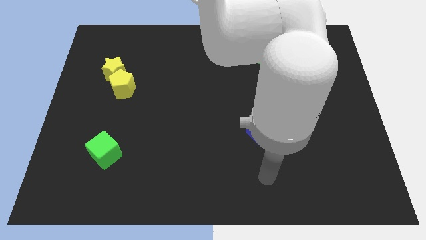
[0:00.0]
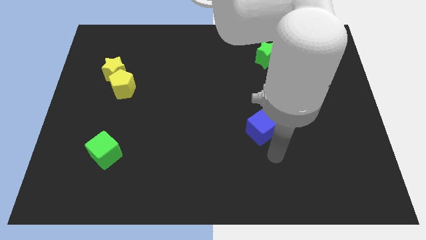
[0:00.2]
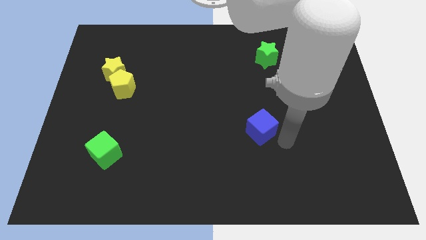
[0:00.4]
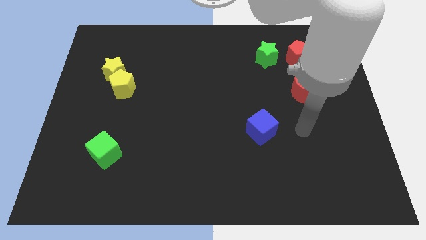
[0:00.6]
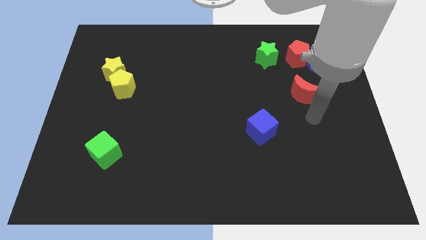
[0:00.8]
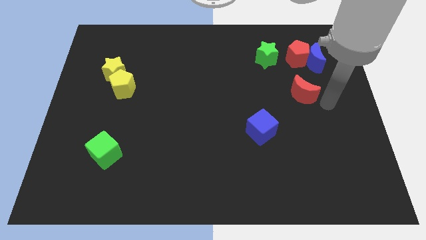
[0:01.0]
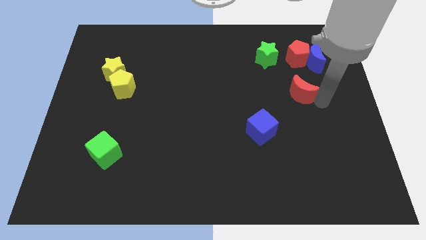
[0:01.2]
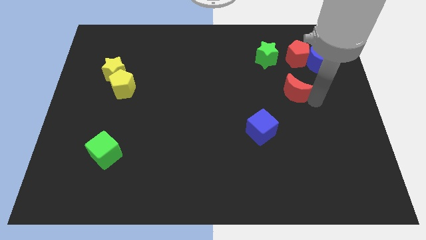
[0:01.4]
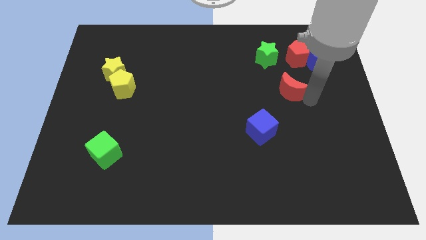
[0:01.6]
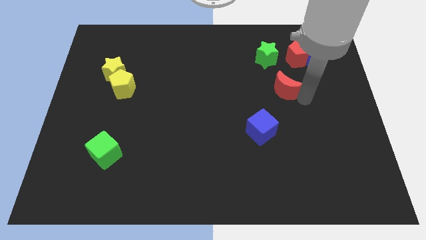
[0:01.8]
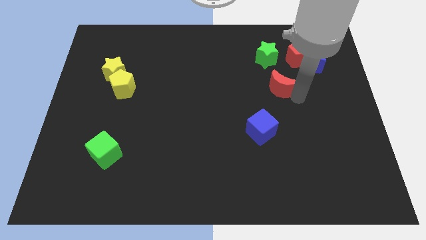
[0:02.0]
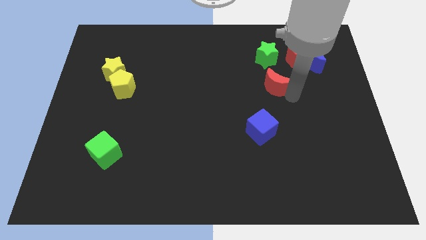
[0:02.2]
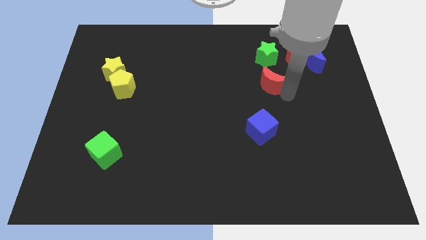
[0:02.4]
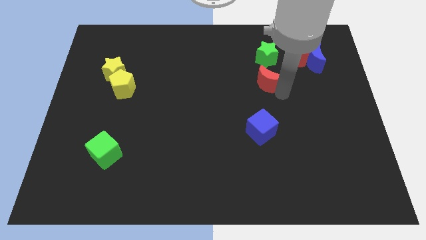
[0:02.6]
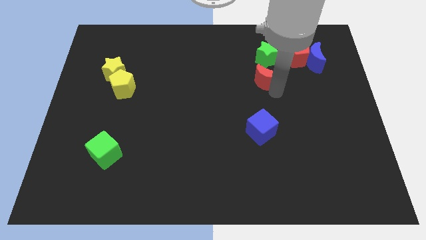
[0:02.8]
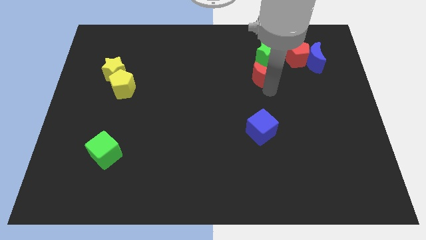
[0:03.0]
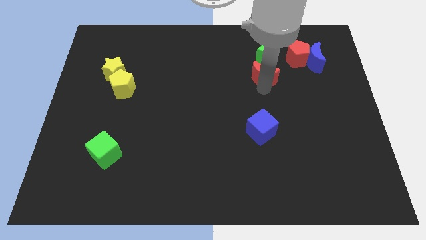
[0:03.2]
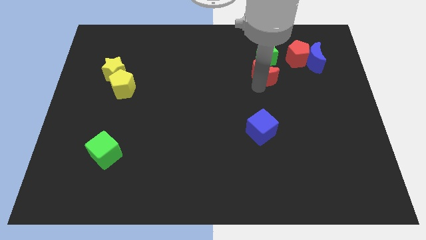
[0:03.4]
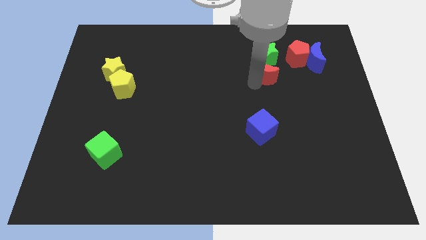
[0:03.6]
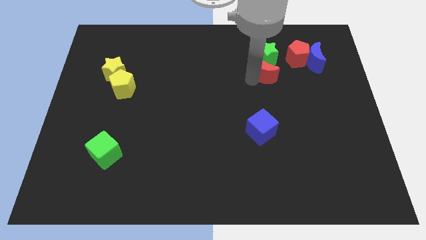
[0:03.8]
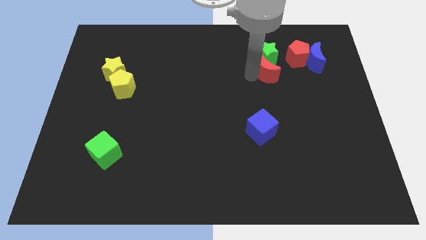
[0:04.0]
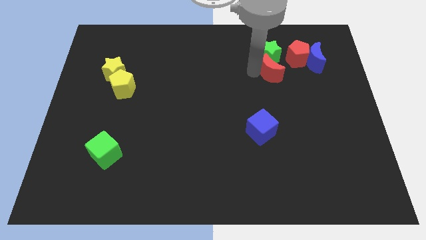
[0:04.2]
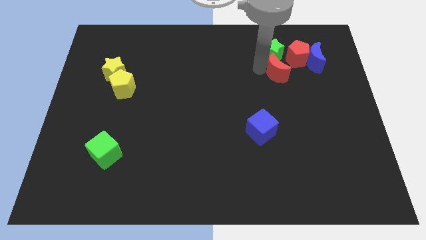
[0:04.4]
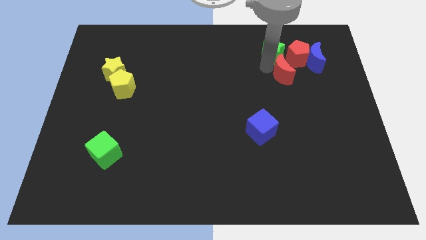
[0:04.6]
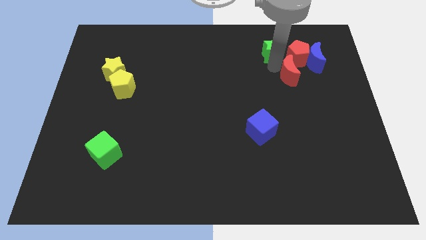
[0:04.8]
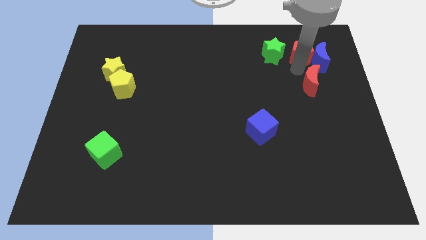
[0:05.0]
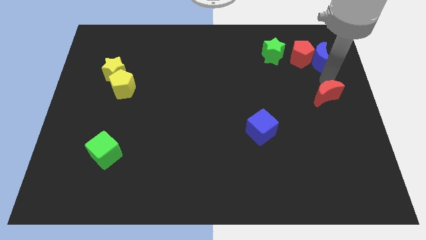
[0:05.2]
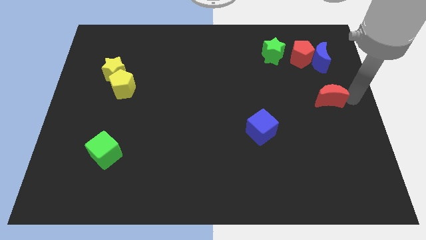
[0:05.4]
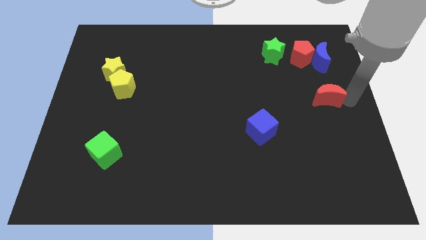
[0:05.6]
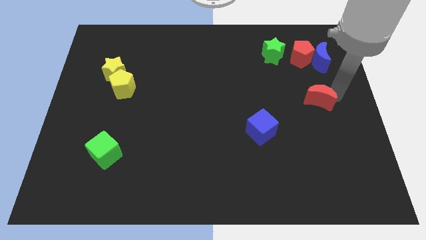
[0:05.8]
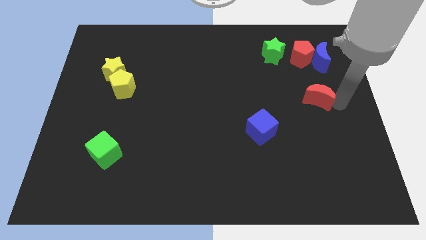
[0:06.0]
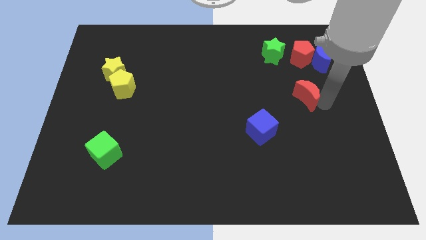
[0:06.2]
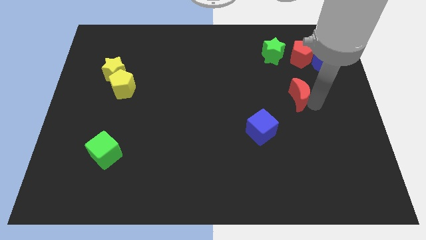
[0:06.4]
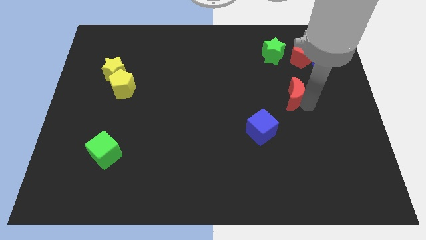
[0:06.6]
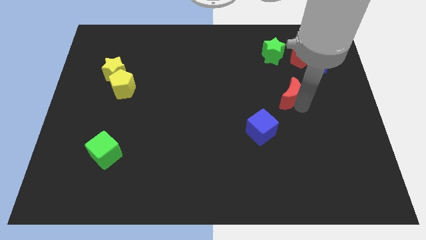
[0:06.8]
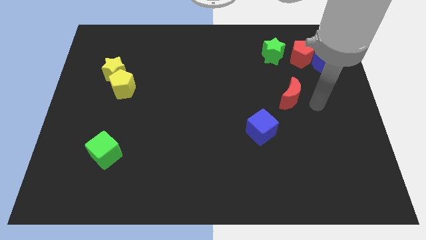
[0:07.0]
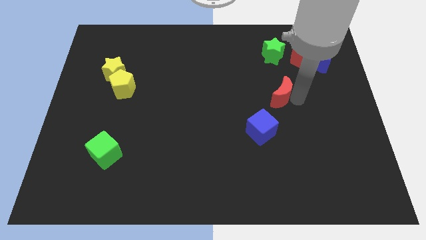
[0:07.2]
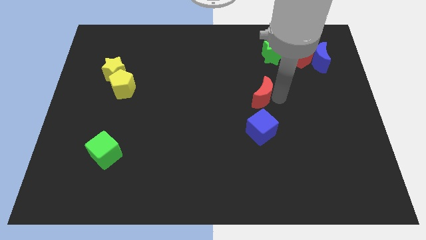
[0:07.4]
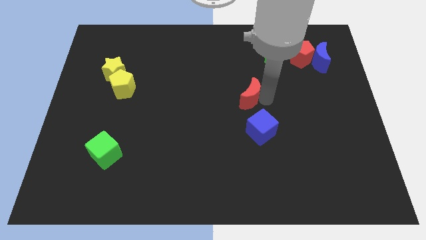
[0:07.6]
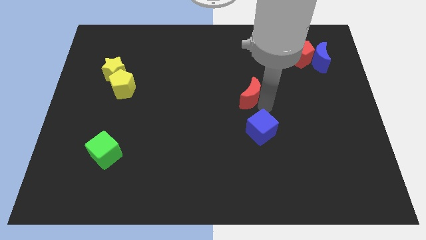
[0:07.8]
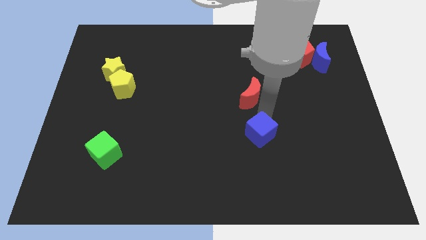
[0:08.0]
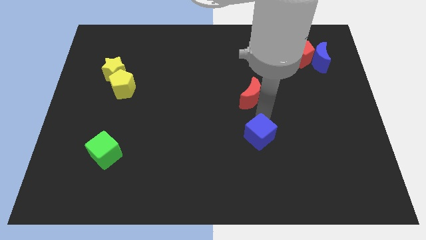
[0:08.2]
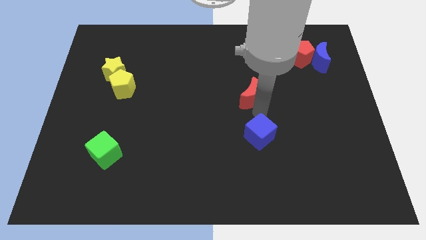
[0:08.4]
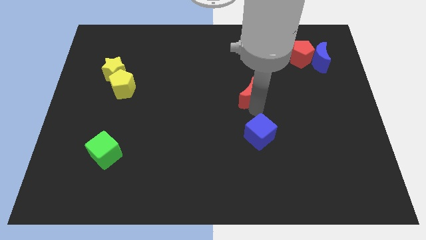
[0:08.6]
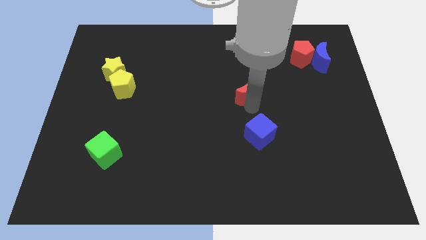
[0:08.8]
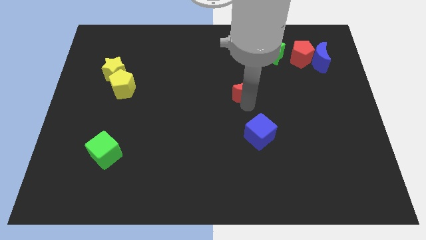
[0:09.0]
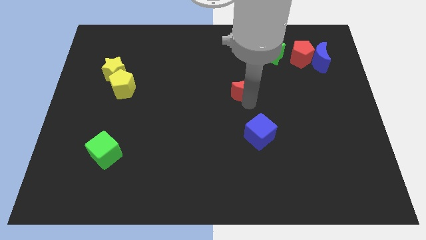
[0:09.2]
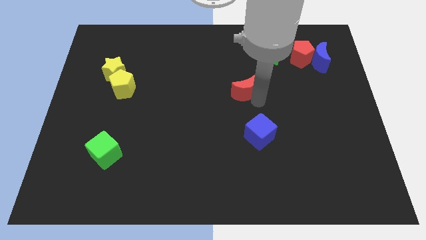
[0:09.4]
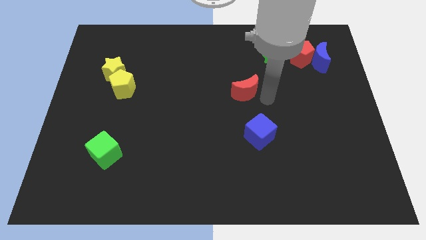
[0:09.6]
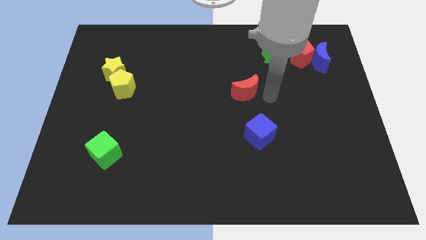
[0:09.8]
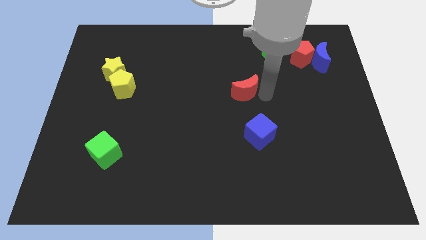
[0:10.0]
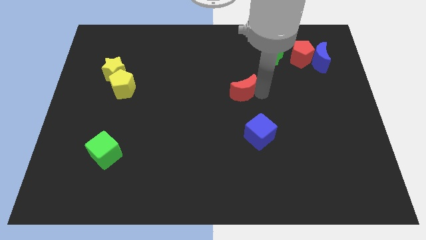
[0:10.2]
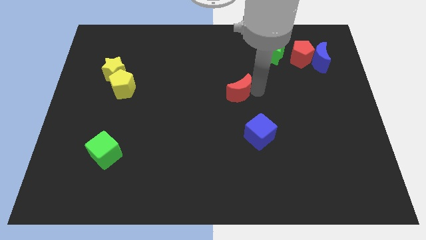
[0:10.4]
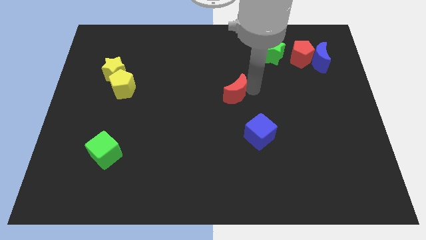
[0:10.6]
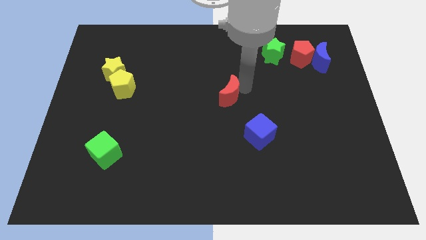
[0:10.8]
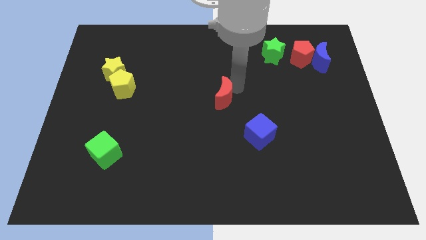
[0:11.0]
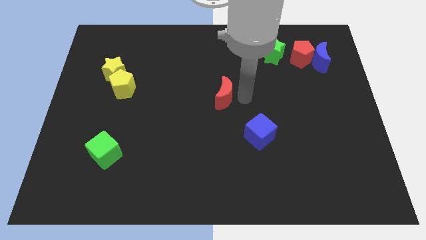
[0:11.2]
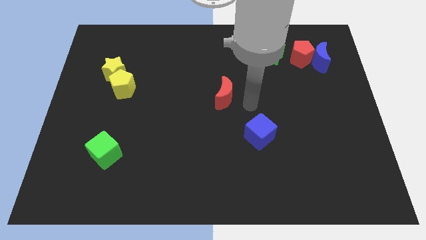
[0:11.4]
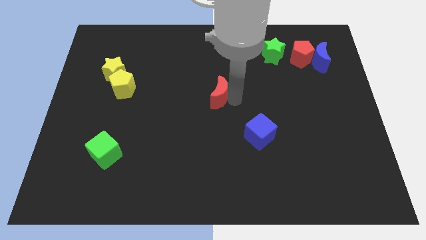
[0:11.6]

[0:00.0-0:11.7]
push the red moon left

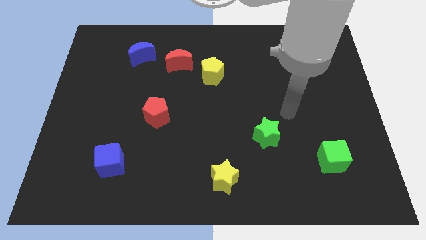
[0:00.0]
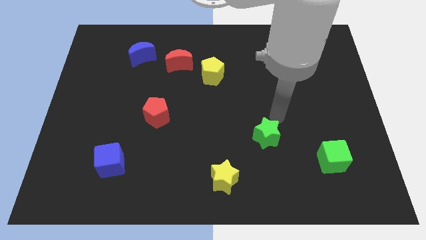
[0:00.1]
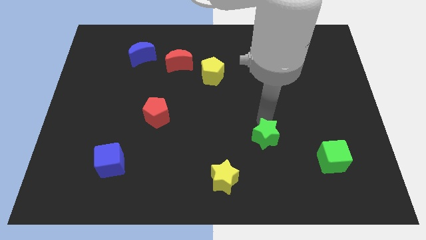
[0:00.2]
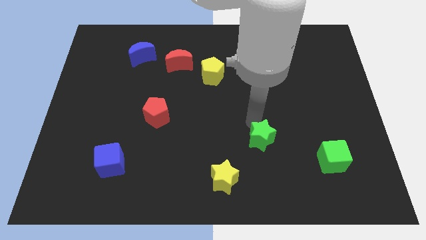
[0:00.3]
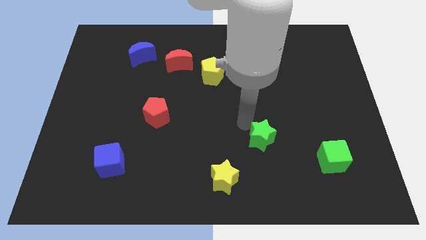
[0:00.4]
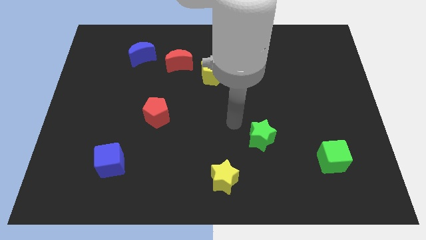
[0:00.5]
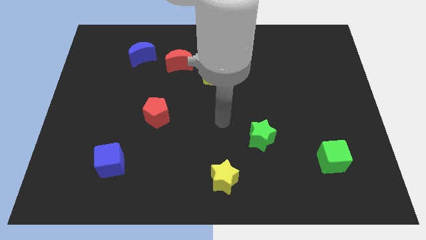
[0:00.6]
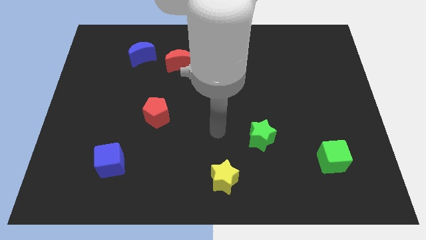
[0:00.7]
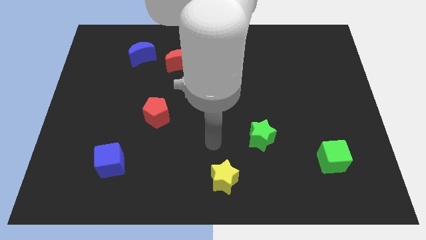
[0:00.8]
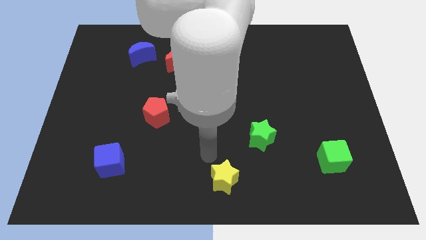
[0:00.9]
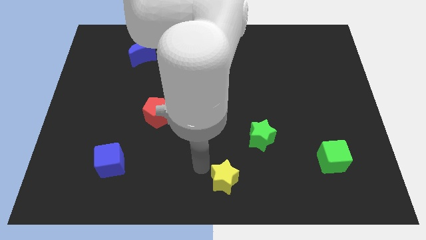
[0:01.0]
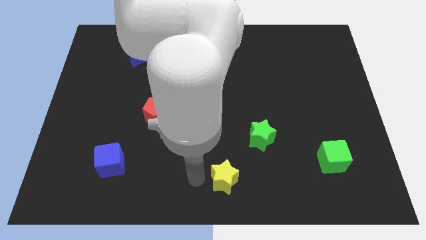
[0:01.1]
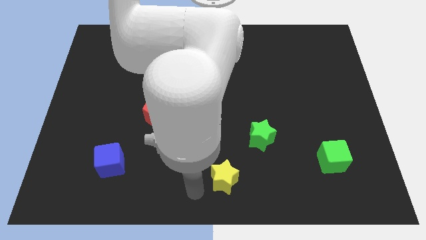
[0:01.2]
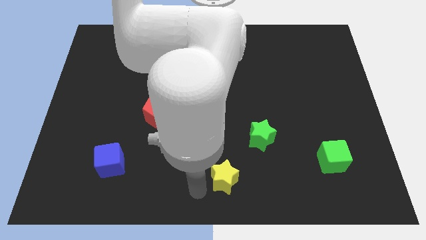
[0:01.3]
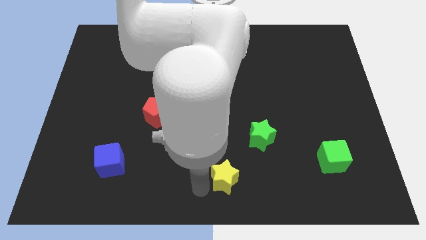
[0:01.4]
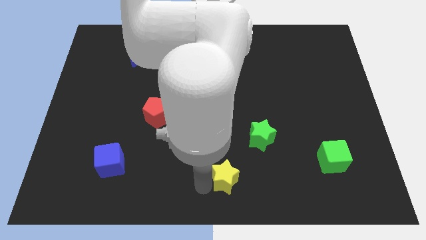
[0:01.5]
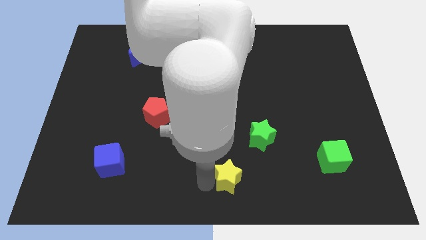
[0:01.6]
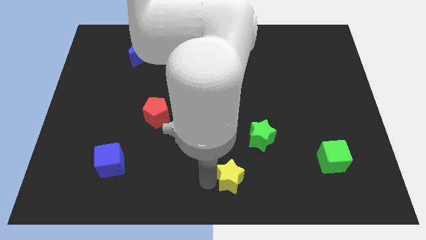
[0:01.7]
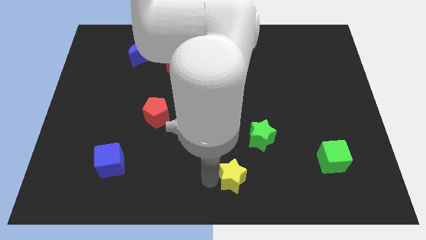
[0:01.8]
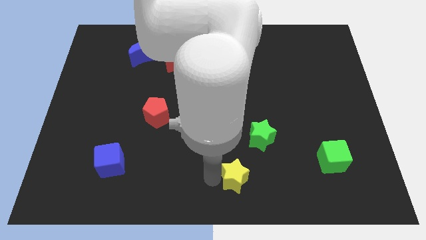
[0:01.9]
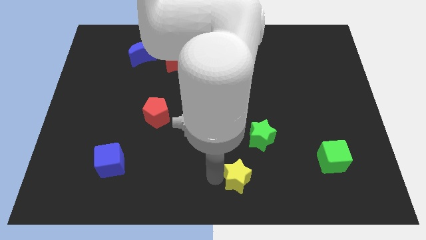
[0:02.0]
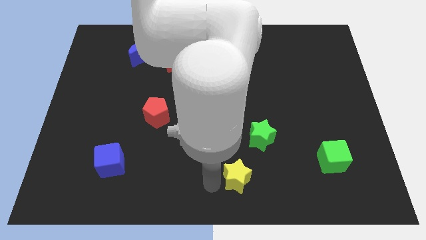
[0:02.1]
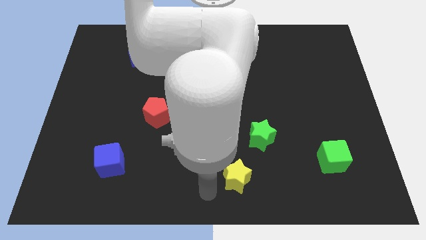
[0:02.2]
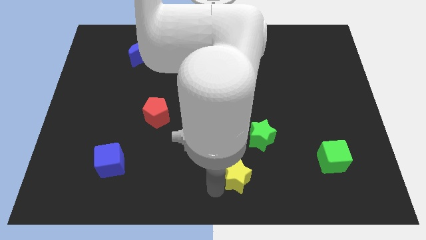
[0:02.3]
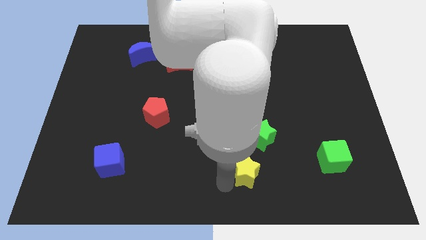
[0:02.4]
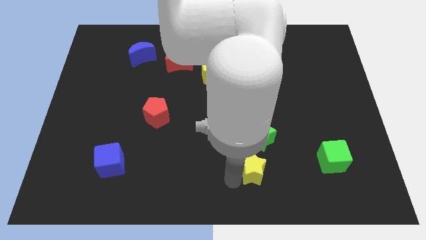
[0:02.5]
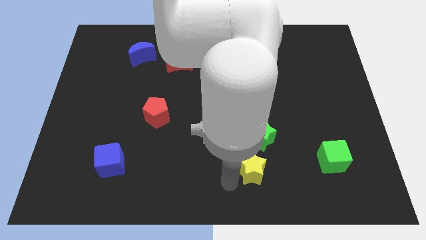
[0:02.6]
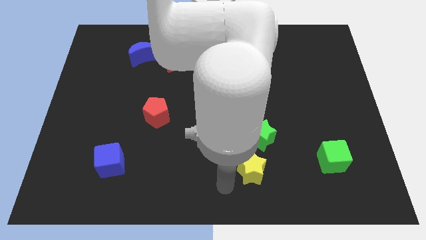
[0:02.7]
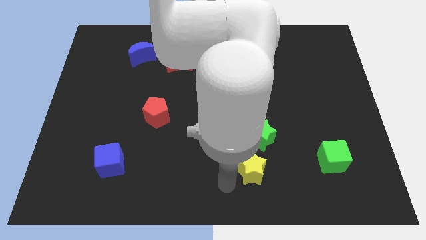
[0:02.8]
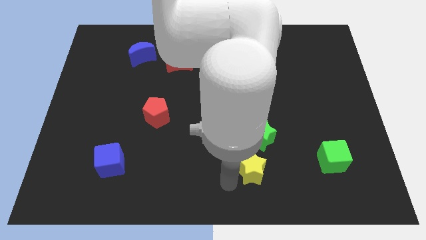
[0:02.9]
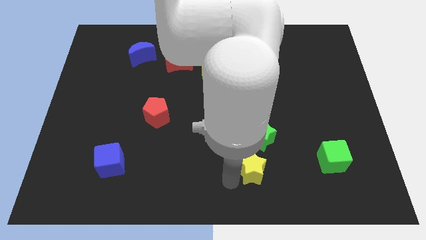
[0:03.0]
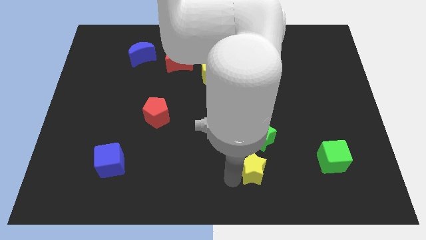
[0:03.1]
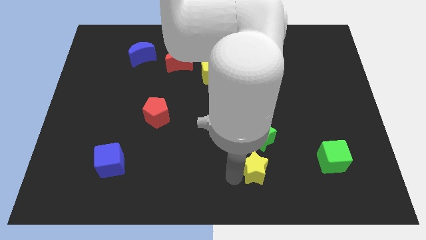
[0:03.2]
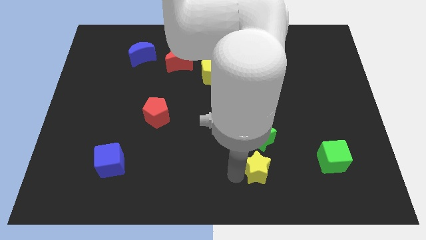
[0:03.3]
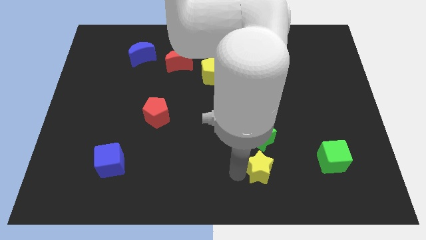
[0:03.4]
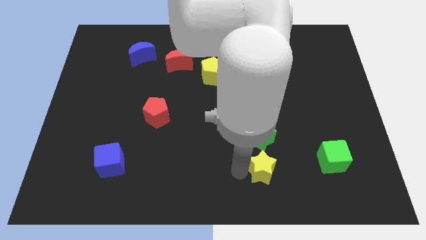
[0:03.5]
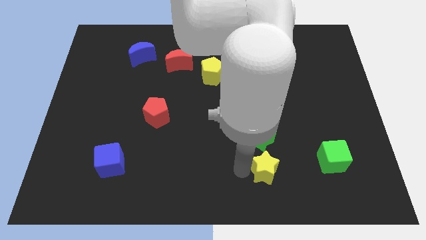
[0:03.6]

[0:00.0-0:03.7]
push the yellow star somewhat upwards and right
